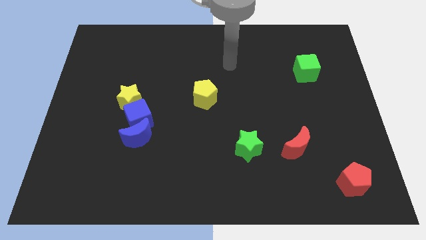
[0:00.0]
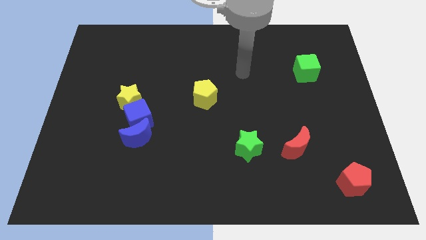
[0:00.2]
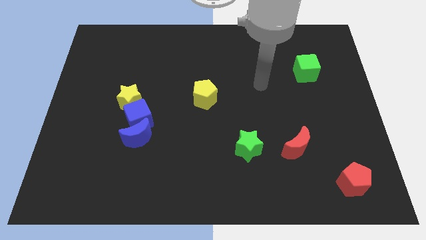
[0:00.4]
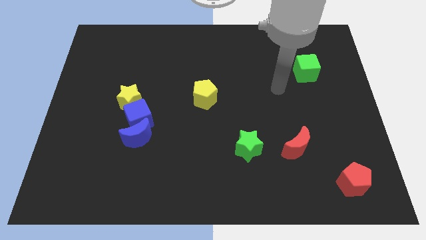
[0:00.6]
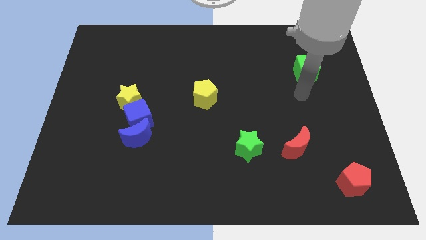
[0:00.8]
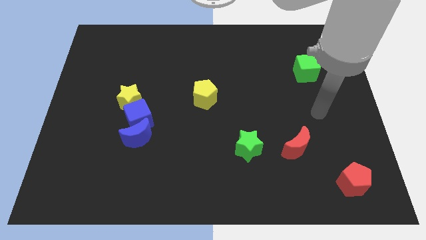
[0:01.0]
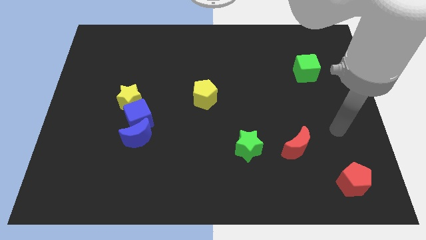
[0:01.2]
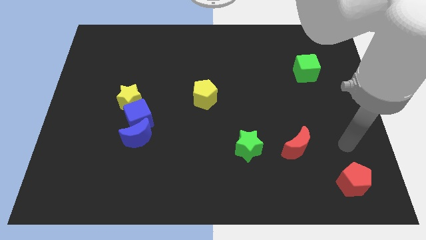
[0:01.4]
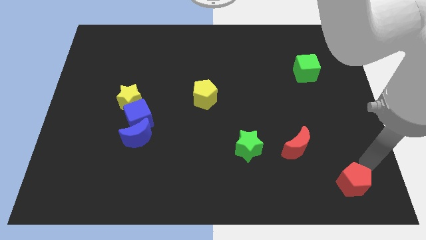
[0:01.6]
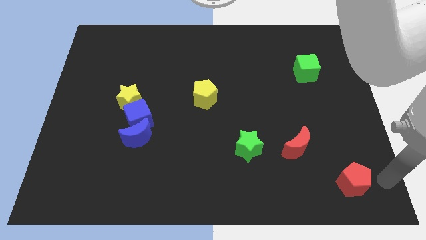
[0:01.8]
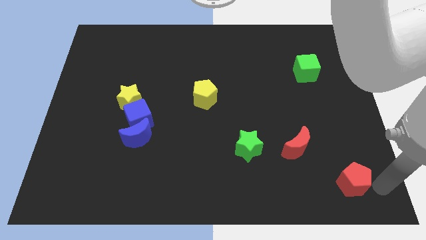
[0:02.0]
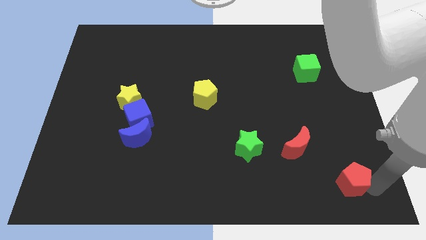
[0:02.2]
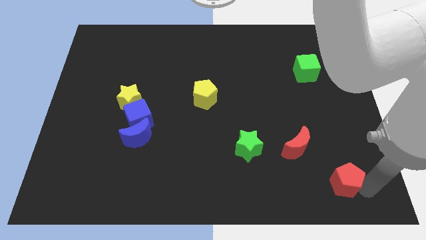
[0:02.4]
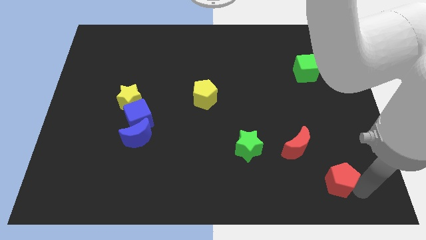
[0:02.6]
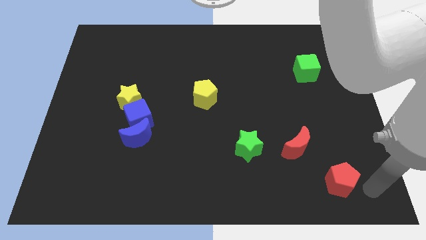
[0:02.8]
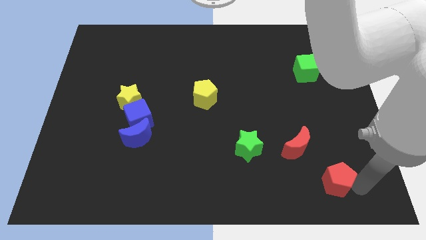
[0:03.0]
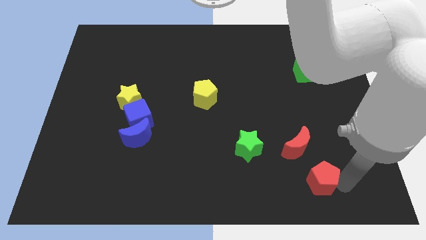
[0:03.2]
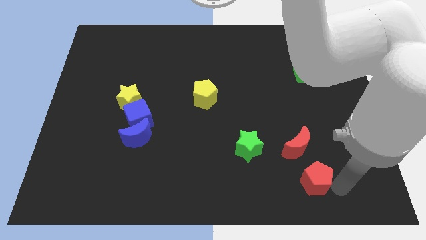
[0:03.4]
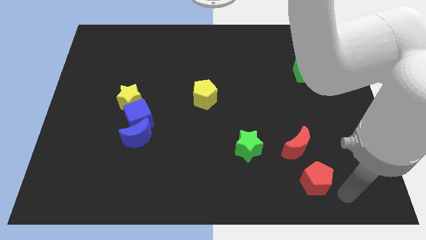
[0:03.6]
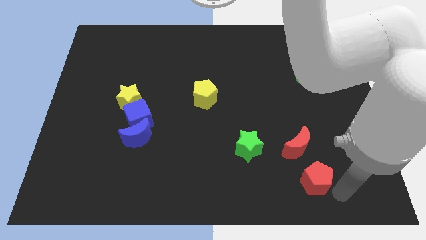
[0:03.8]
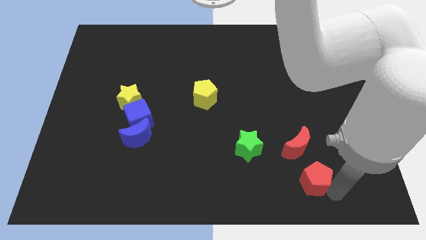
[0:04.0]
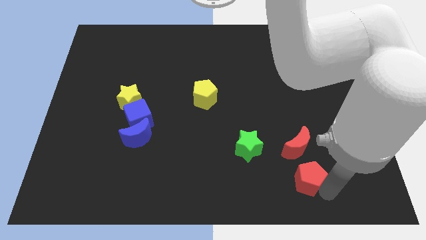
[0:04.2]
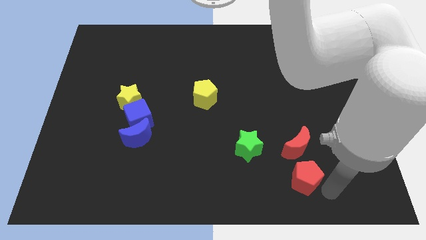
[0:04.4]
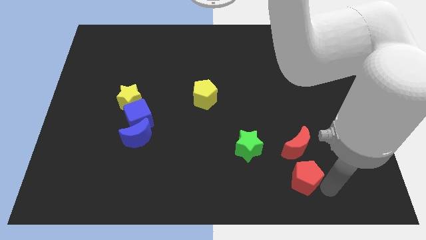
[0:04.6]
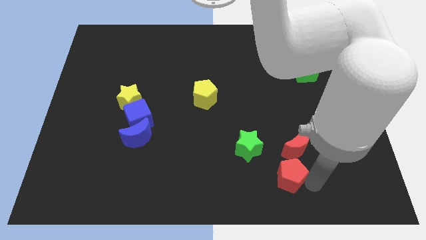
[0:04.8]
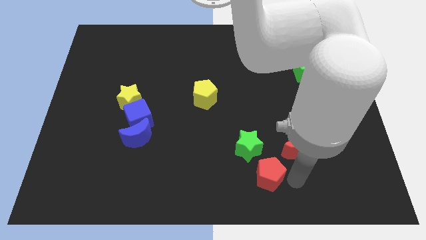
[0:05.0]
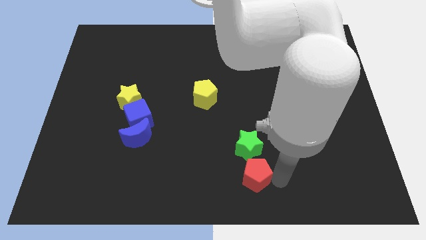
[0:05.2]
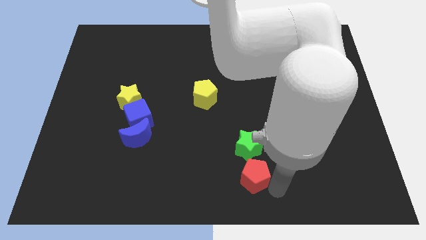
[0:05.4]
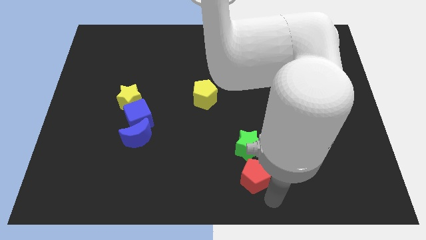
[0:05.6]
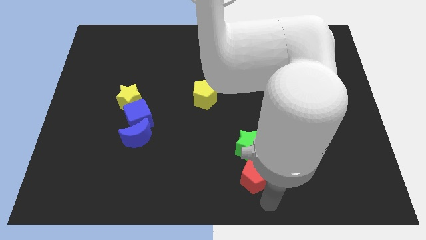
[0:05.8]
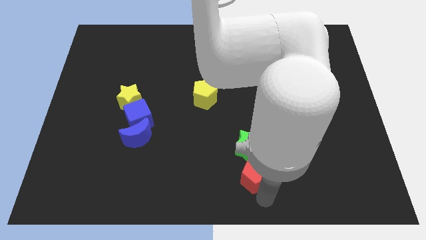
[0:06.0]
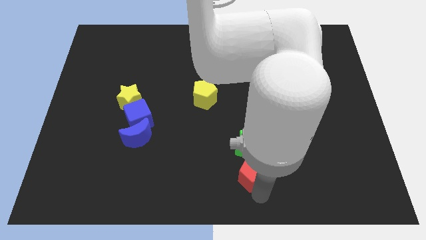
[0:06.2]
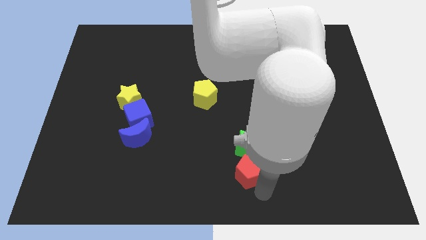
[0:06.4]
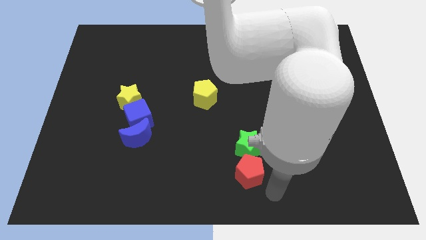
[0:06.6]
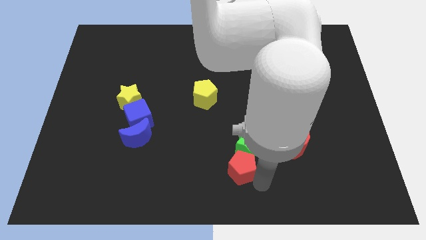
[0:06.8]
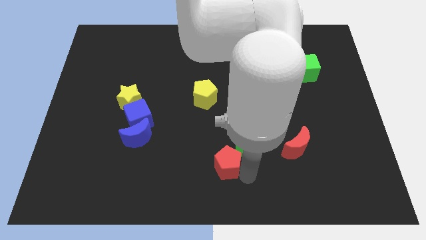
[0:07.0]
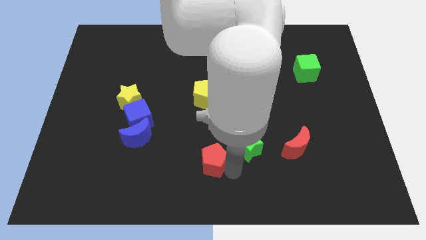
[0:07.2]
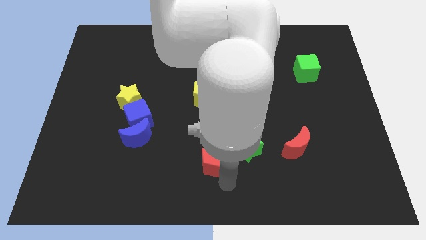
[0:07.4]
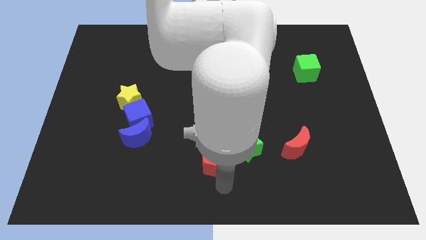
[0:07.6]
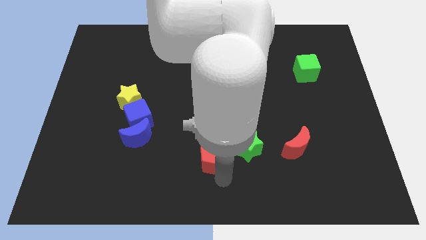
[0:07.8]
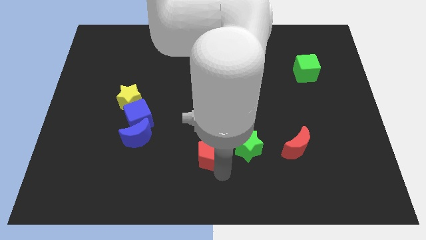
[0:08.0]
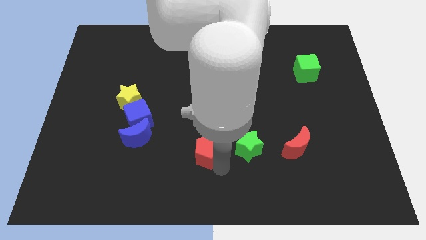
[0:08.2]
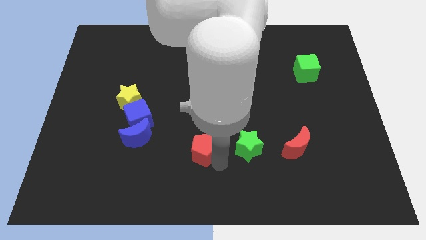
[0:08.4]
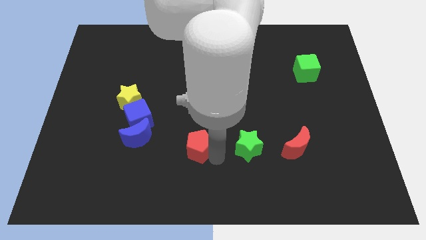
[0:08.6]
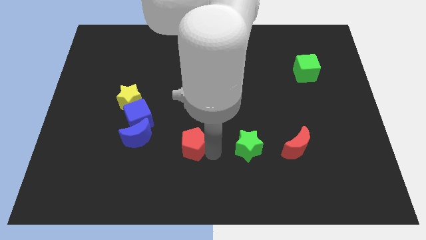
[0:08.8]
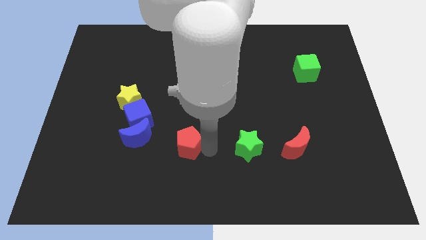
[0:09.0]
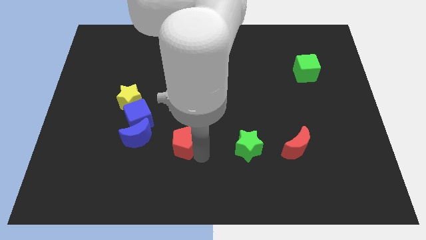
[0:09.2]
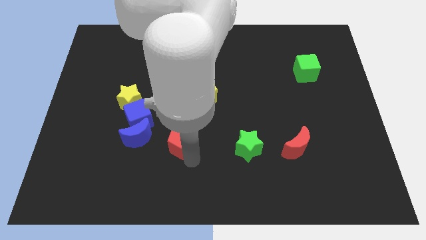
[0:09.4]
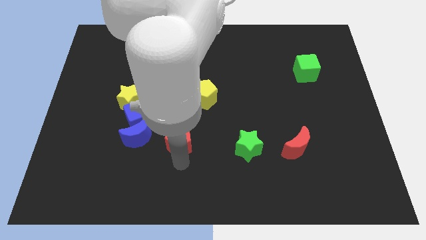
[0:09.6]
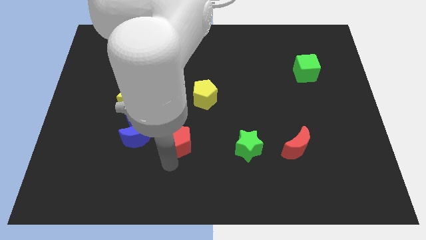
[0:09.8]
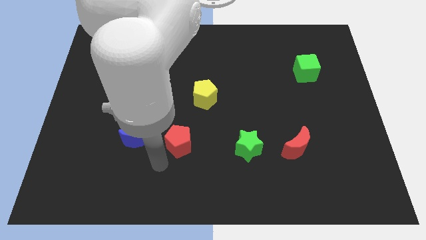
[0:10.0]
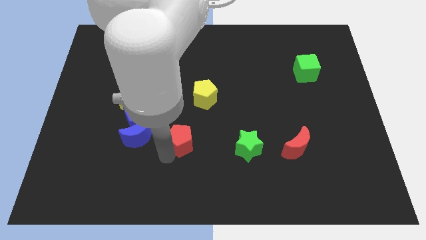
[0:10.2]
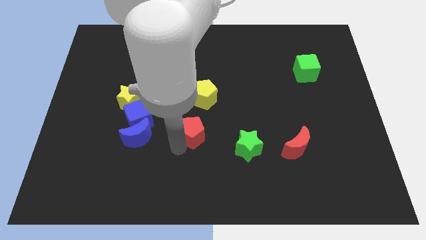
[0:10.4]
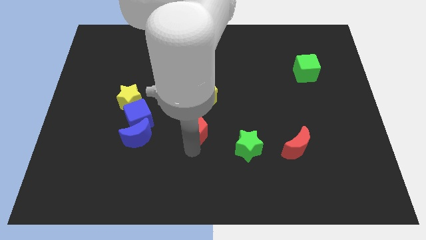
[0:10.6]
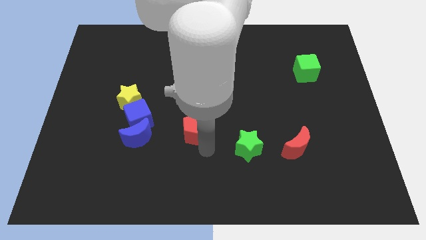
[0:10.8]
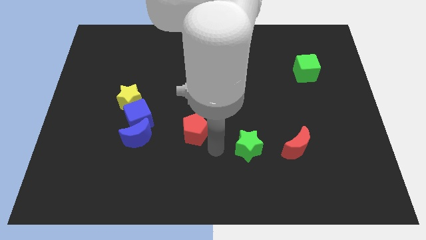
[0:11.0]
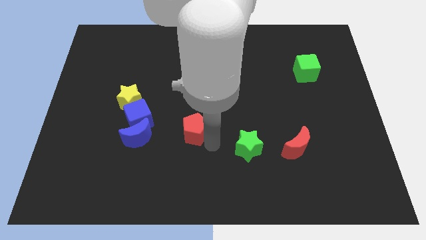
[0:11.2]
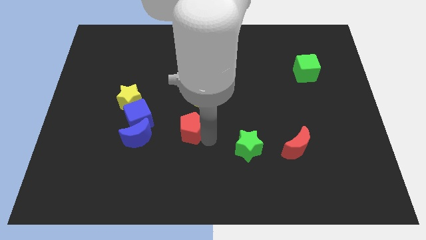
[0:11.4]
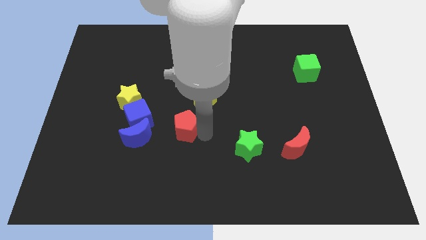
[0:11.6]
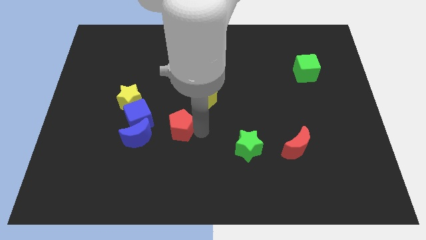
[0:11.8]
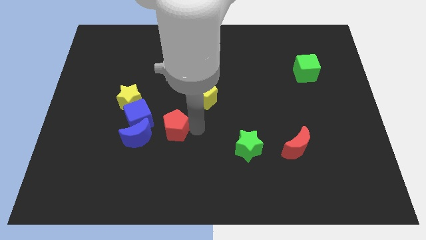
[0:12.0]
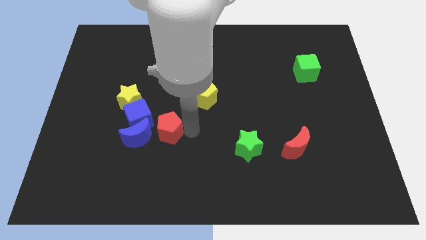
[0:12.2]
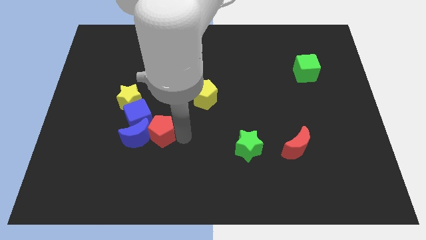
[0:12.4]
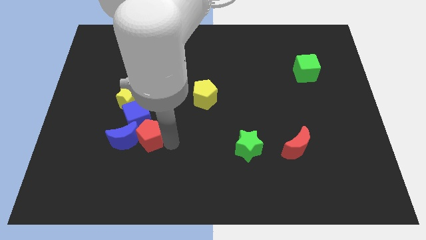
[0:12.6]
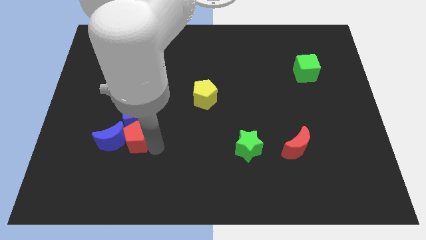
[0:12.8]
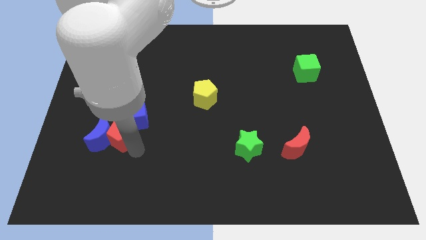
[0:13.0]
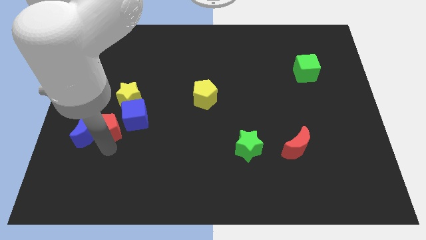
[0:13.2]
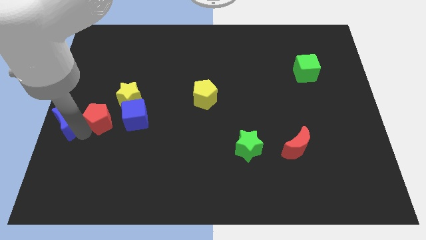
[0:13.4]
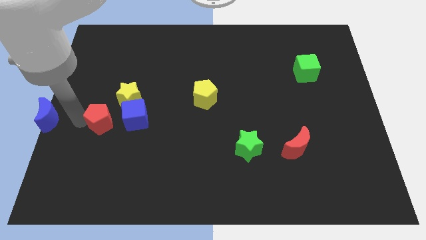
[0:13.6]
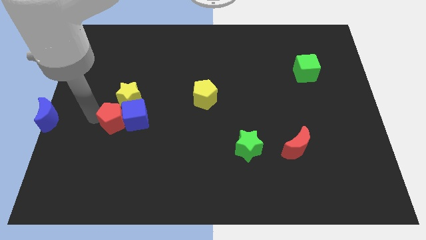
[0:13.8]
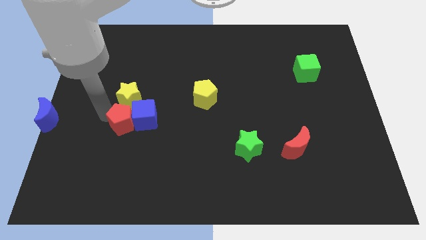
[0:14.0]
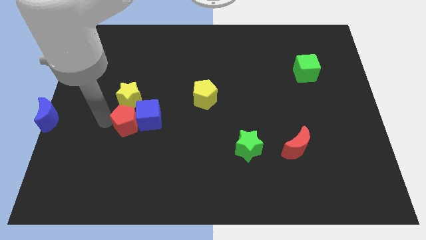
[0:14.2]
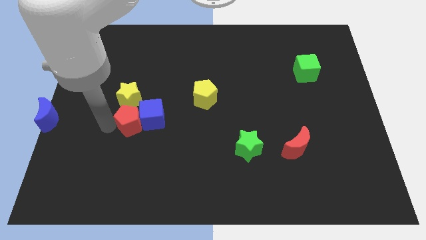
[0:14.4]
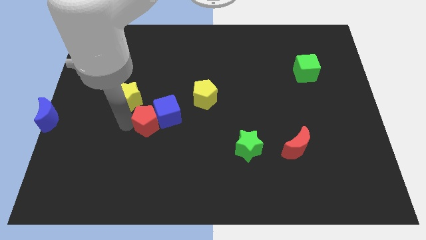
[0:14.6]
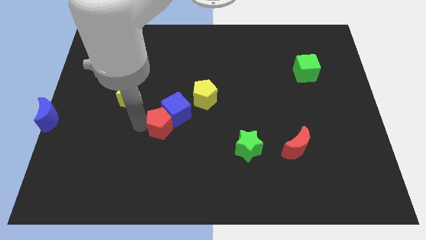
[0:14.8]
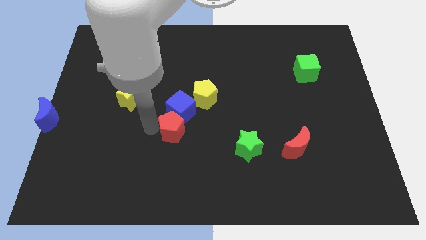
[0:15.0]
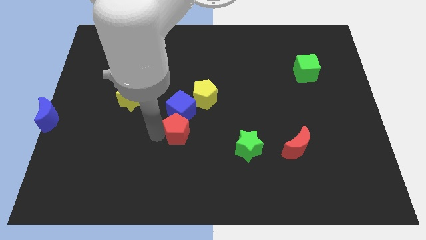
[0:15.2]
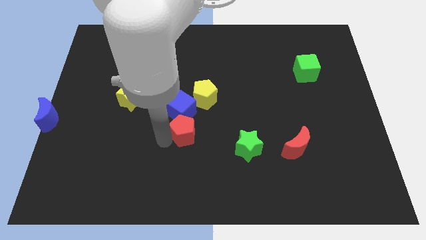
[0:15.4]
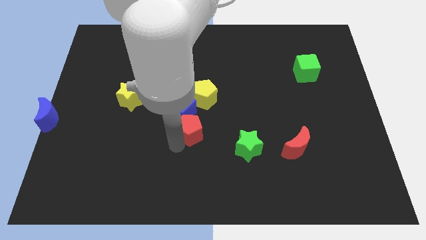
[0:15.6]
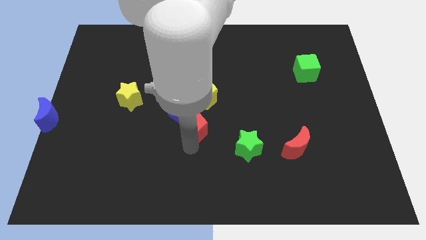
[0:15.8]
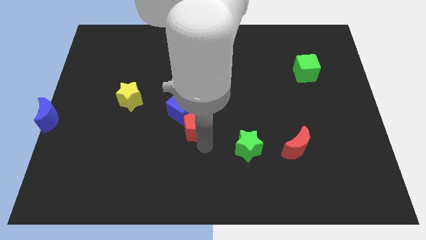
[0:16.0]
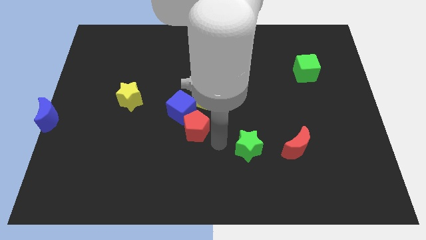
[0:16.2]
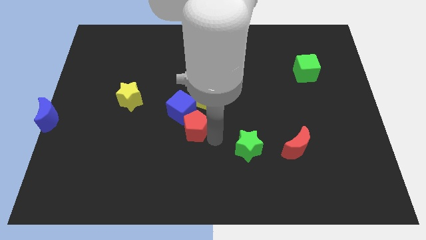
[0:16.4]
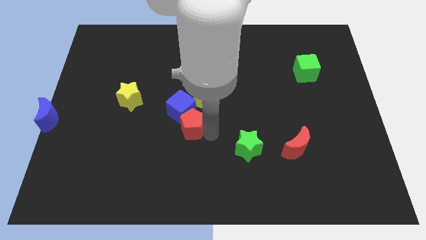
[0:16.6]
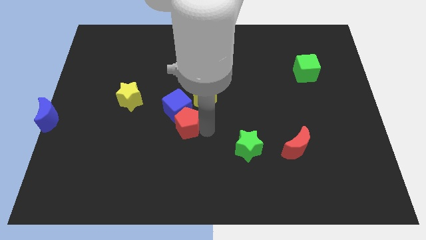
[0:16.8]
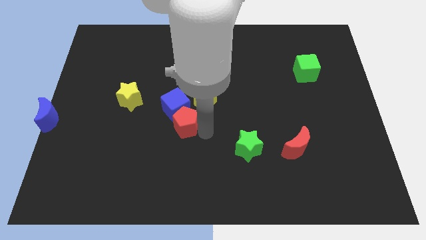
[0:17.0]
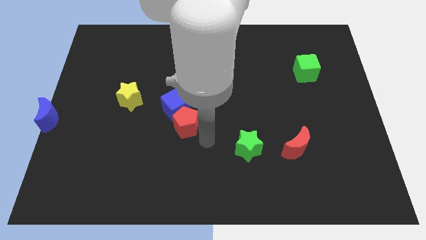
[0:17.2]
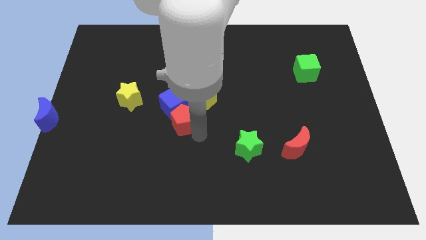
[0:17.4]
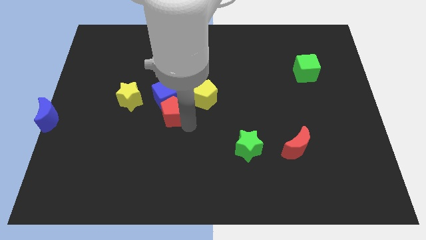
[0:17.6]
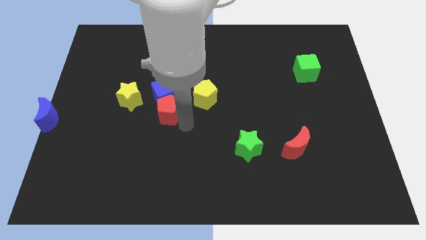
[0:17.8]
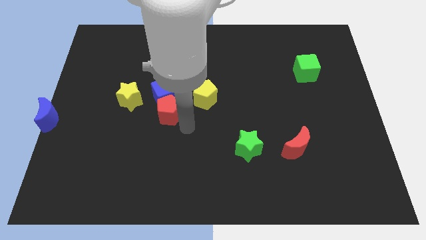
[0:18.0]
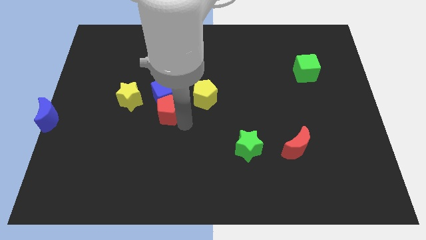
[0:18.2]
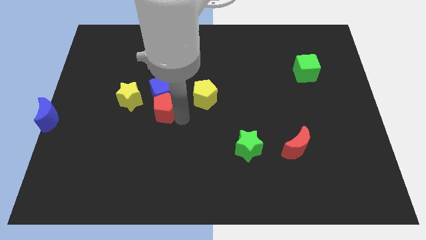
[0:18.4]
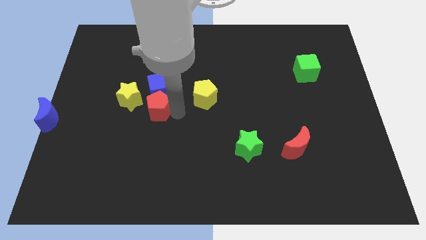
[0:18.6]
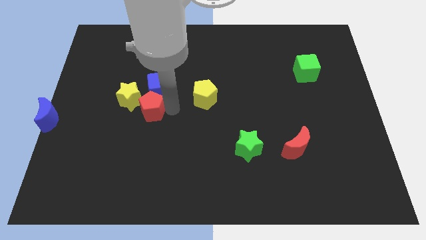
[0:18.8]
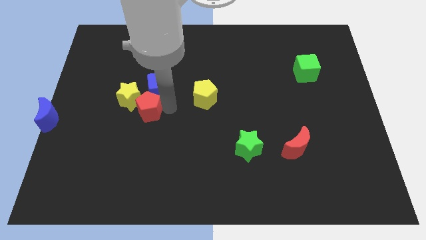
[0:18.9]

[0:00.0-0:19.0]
move the red pentagon towards the yellow star
